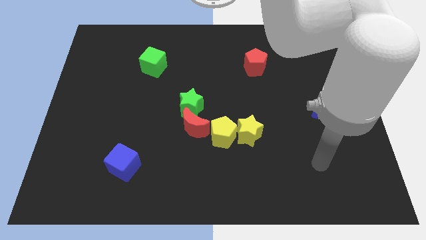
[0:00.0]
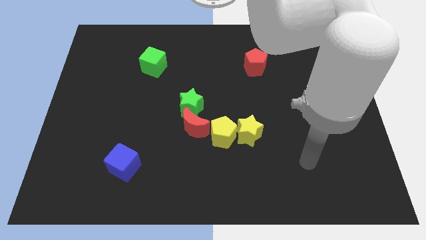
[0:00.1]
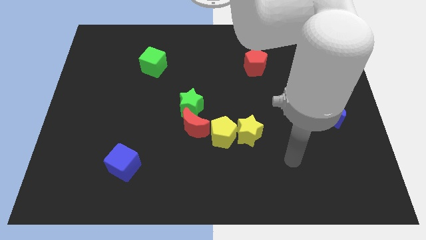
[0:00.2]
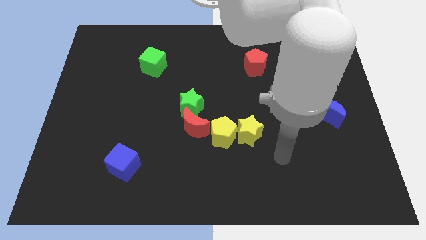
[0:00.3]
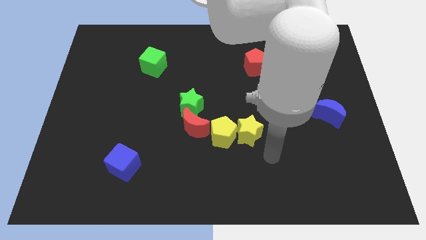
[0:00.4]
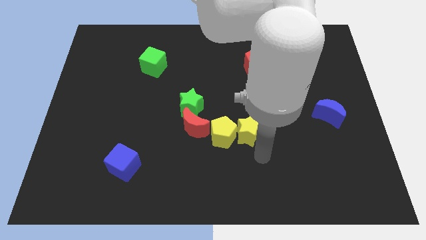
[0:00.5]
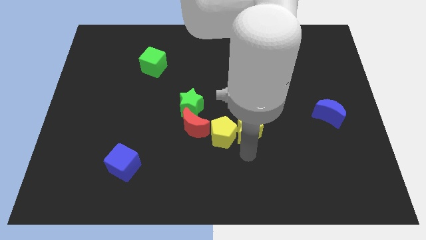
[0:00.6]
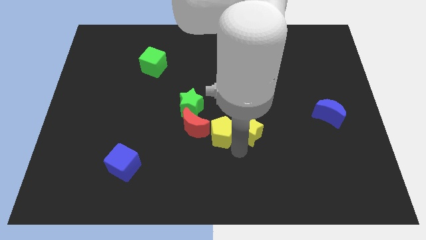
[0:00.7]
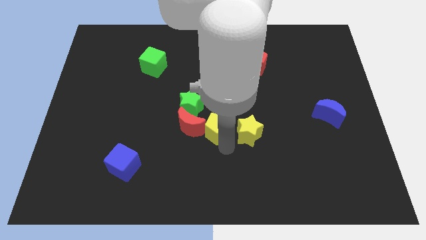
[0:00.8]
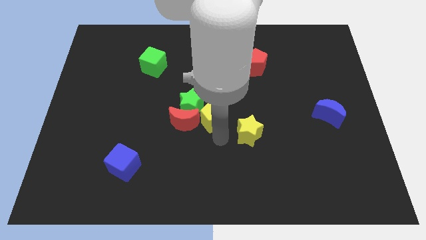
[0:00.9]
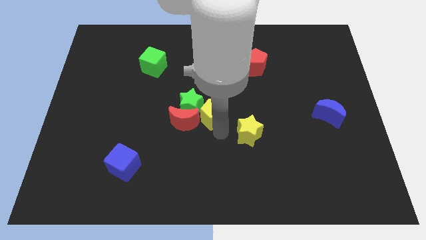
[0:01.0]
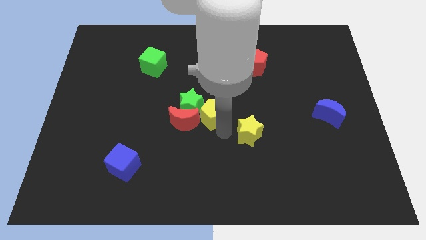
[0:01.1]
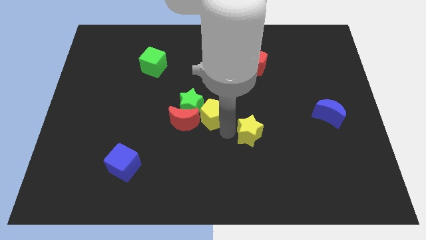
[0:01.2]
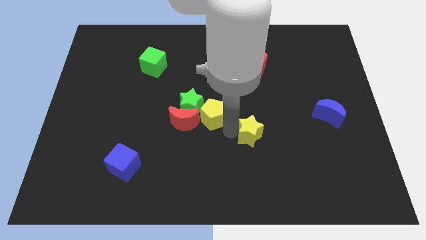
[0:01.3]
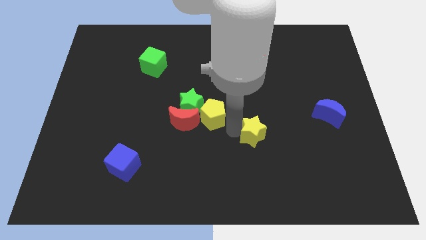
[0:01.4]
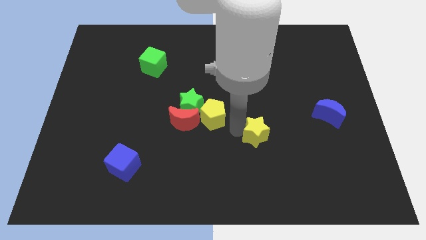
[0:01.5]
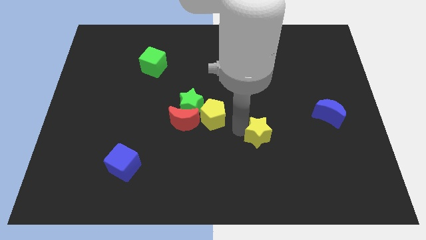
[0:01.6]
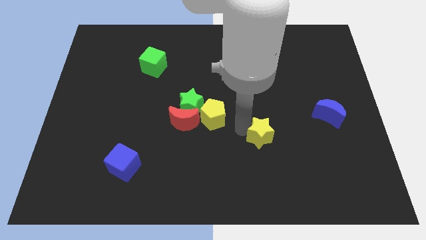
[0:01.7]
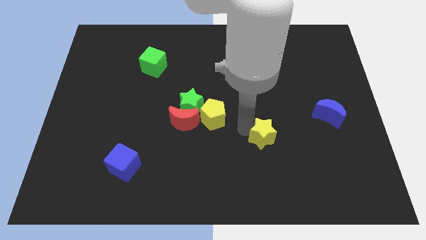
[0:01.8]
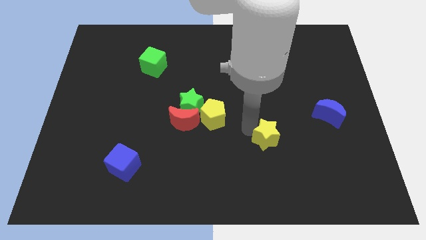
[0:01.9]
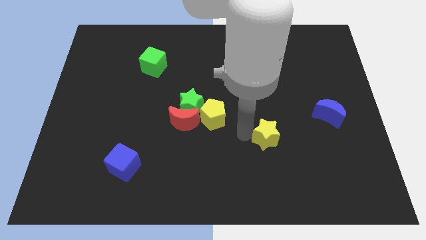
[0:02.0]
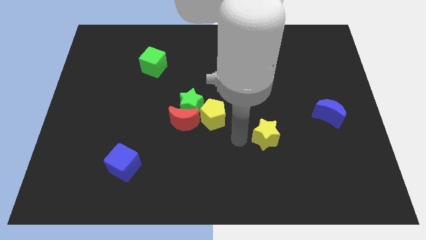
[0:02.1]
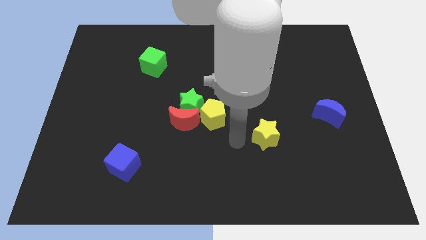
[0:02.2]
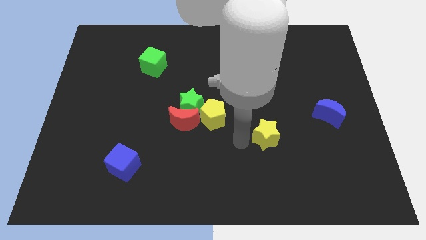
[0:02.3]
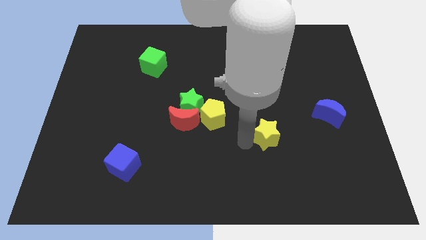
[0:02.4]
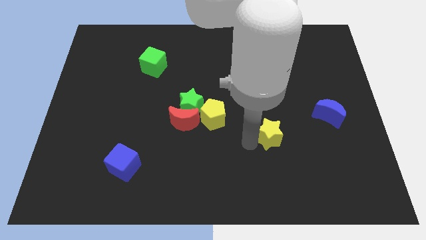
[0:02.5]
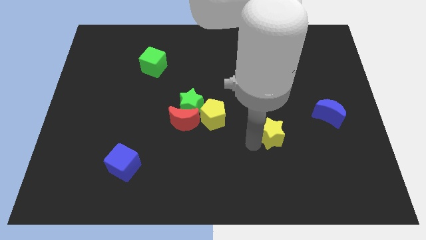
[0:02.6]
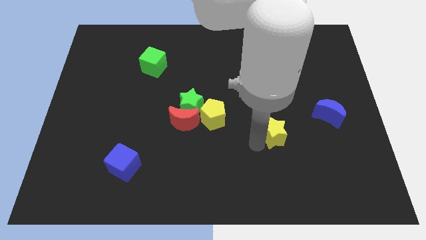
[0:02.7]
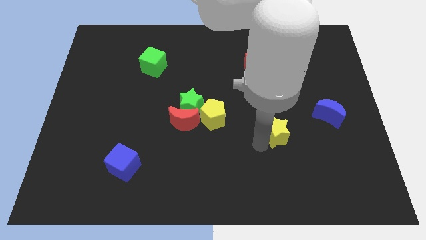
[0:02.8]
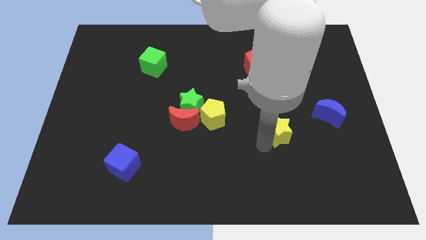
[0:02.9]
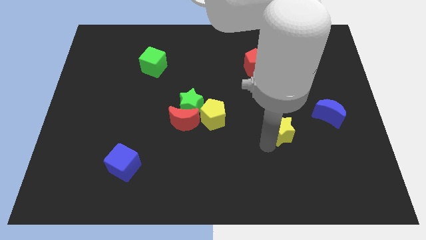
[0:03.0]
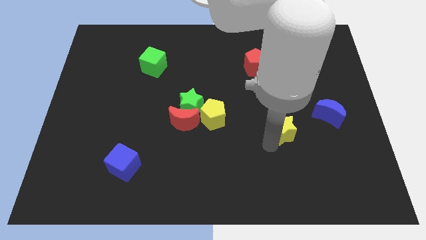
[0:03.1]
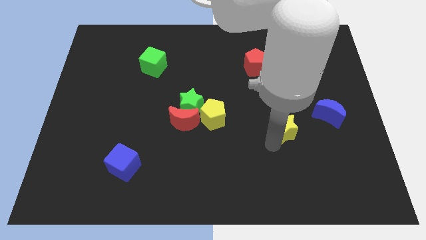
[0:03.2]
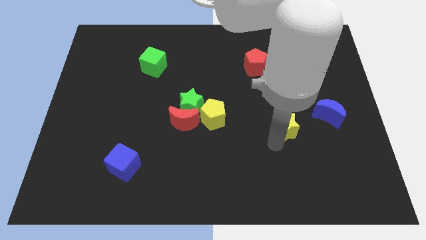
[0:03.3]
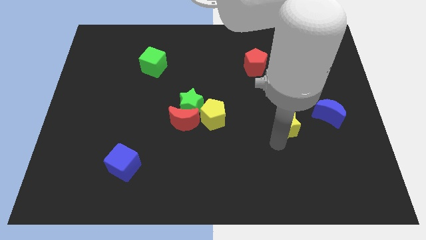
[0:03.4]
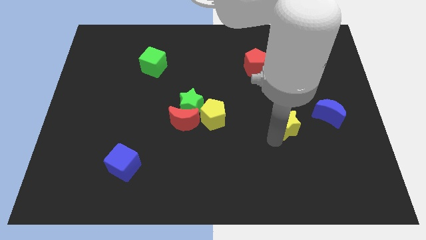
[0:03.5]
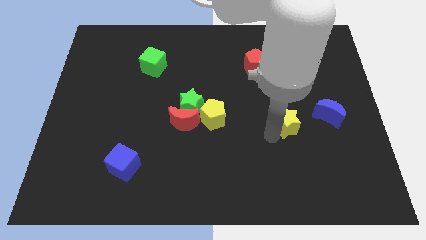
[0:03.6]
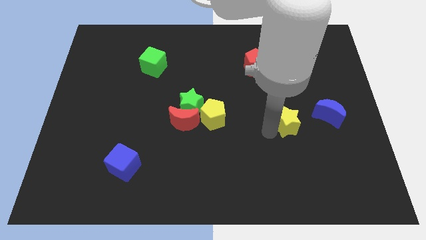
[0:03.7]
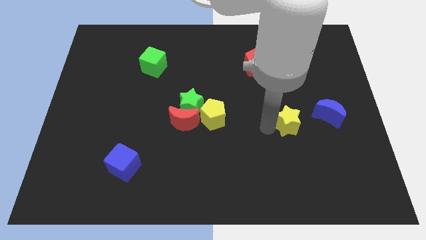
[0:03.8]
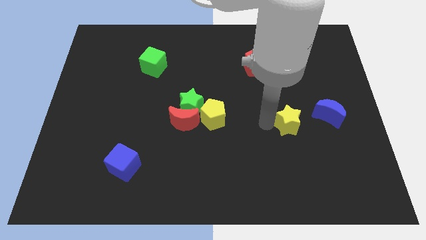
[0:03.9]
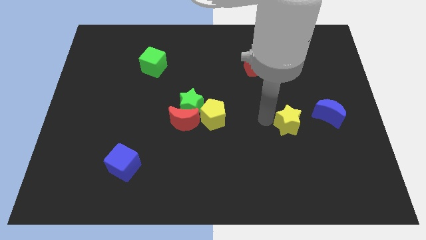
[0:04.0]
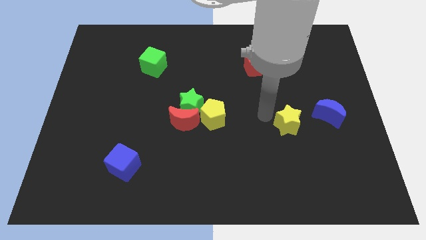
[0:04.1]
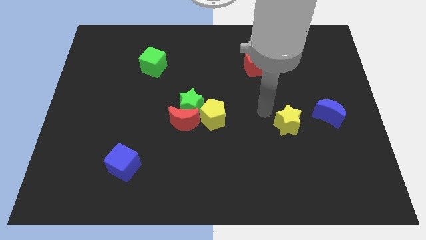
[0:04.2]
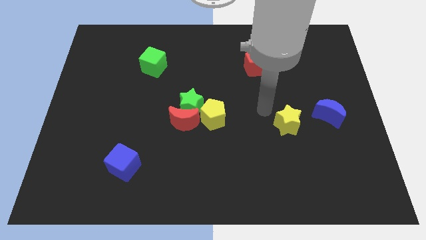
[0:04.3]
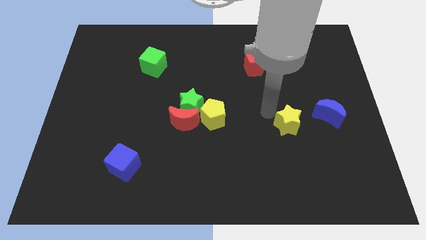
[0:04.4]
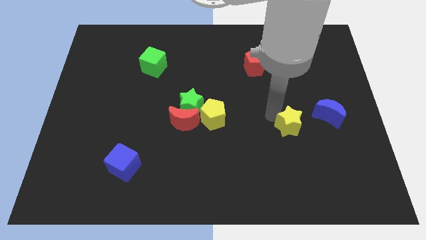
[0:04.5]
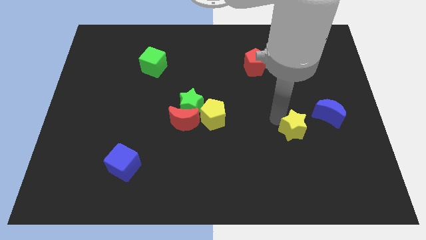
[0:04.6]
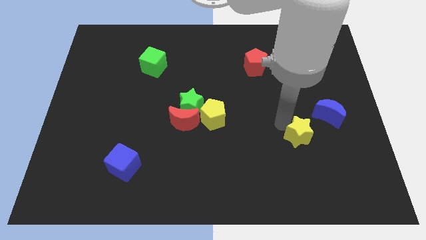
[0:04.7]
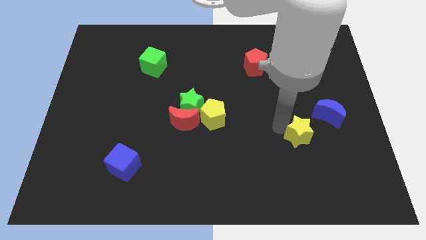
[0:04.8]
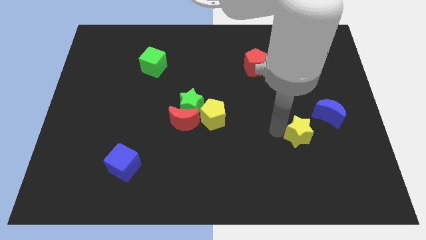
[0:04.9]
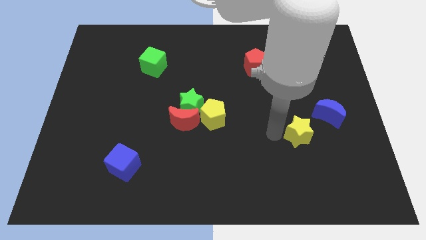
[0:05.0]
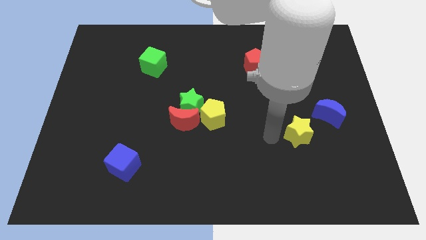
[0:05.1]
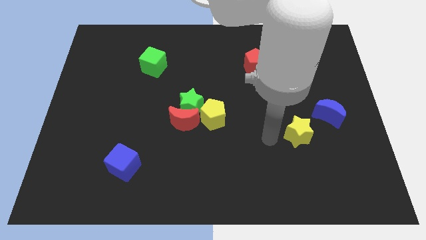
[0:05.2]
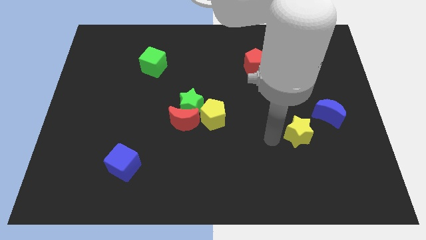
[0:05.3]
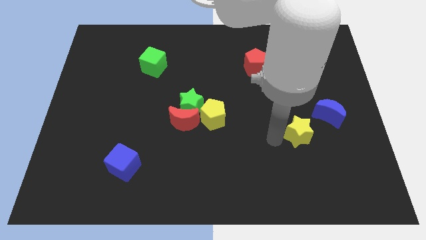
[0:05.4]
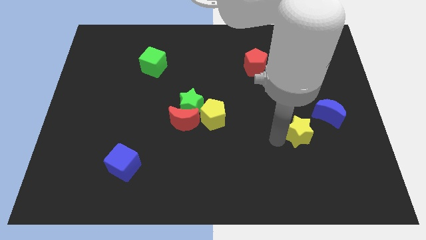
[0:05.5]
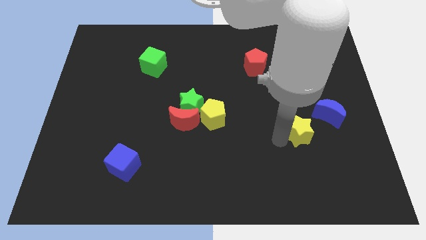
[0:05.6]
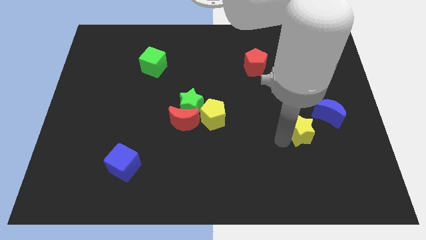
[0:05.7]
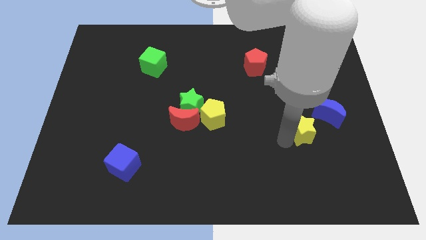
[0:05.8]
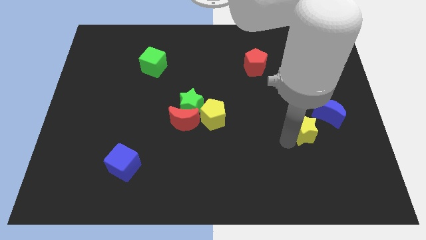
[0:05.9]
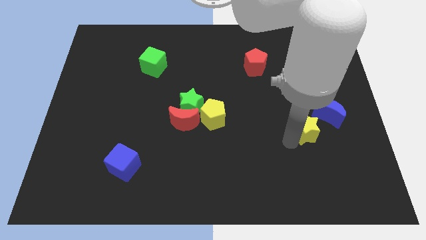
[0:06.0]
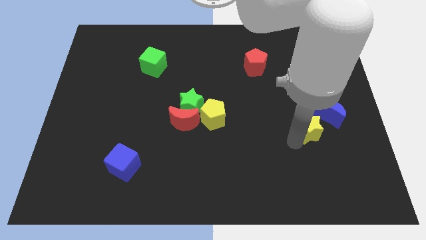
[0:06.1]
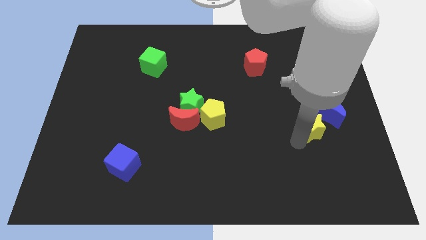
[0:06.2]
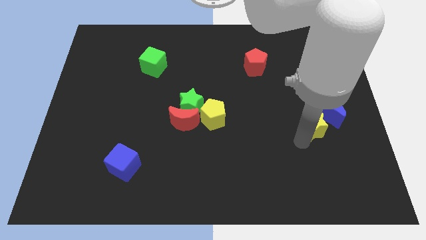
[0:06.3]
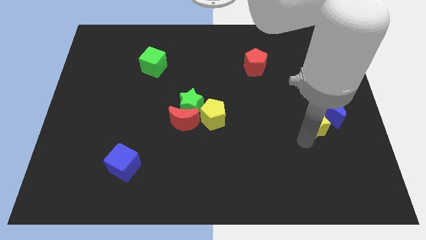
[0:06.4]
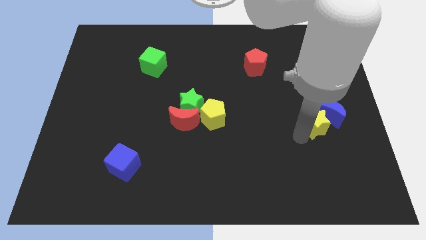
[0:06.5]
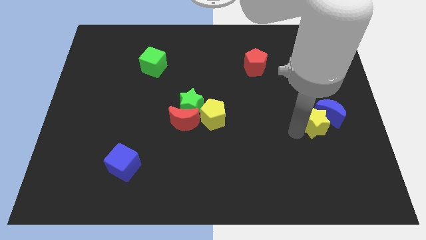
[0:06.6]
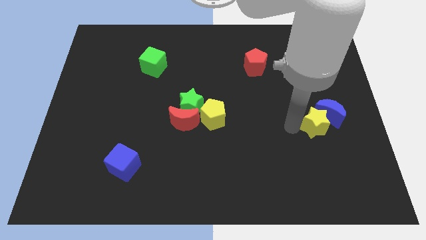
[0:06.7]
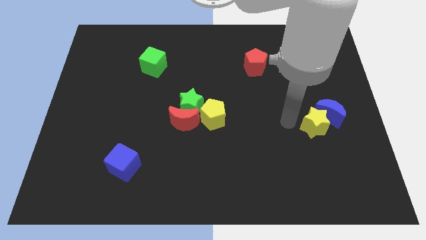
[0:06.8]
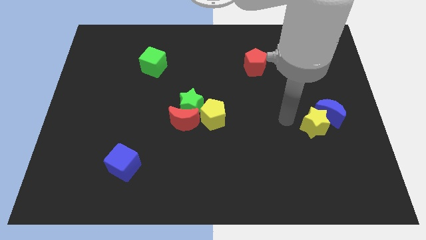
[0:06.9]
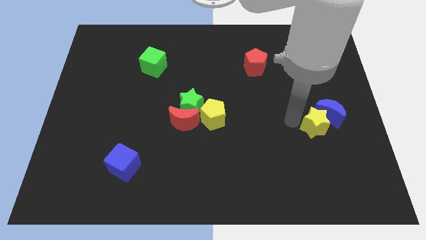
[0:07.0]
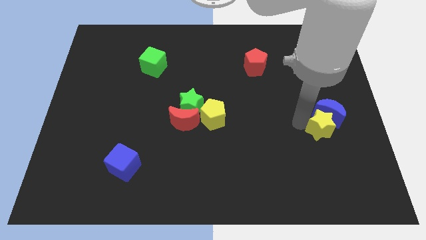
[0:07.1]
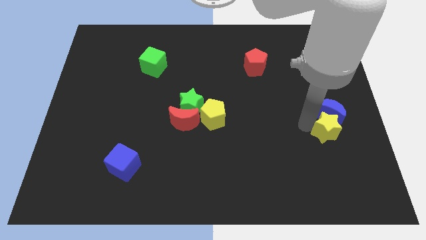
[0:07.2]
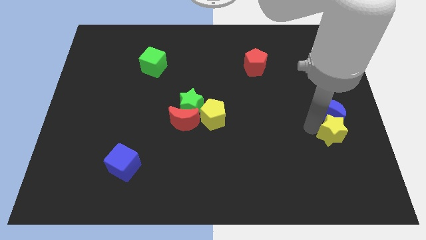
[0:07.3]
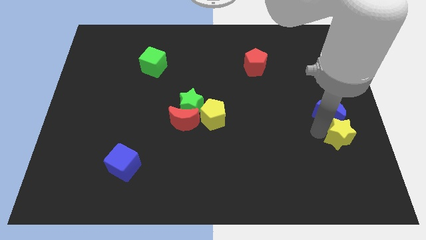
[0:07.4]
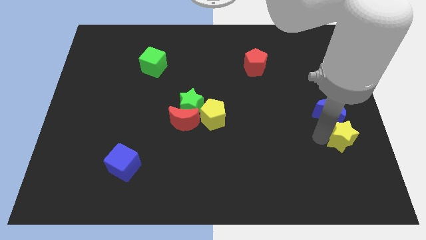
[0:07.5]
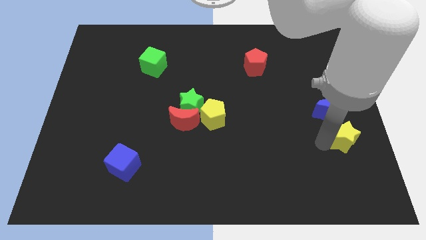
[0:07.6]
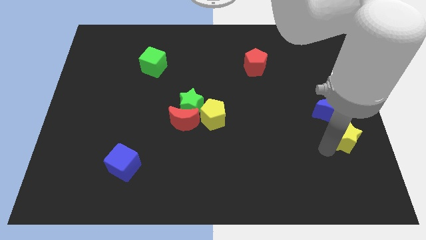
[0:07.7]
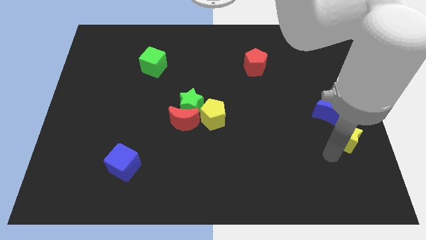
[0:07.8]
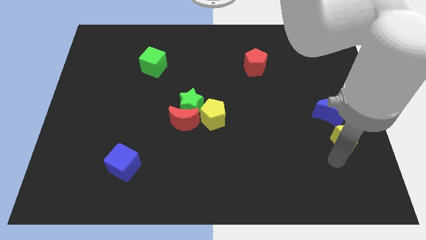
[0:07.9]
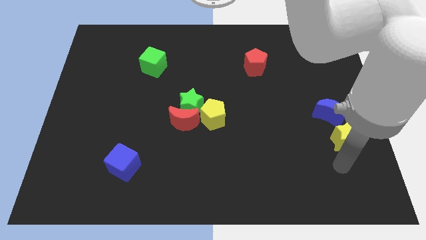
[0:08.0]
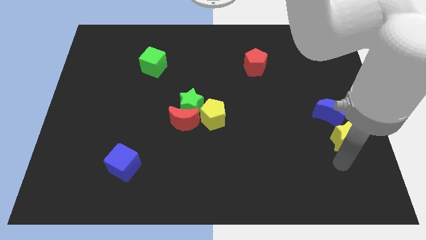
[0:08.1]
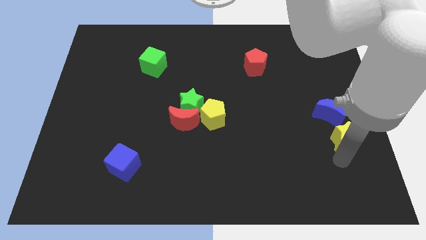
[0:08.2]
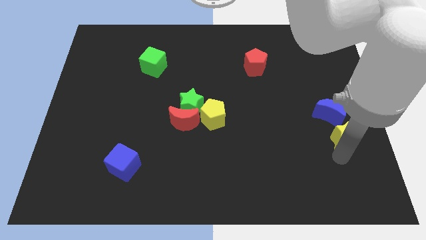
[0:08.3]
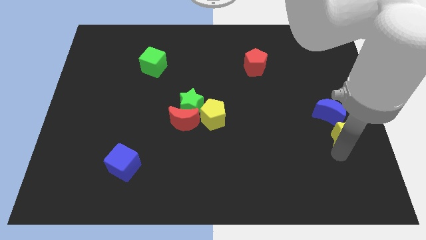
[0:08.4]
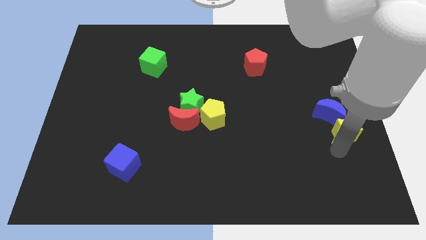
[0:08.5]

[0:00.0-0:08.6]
put the yellow star to the center right
